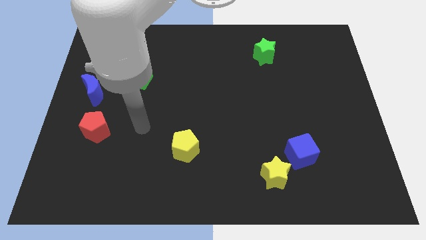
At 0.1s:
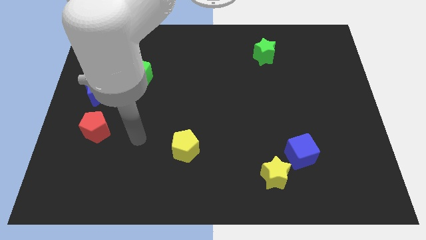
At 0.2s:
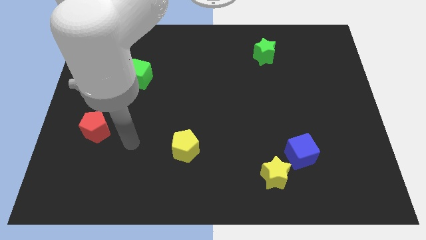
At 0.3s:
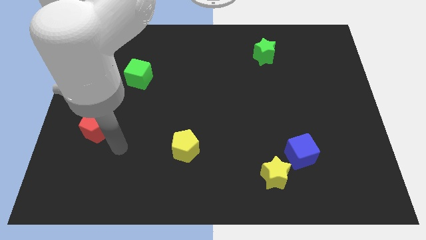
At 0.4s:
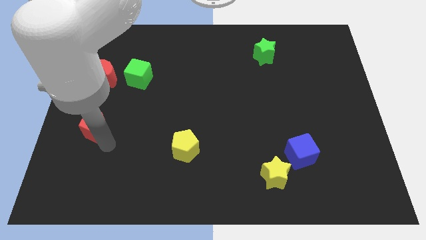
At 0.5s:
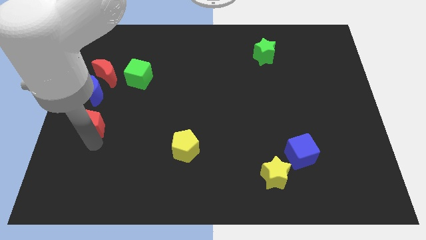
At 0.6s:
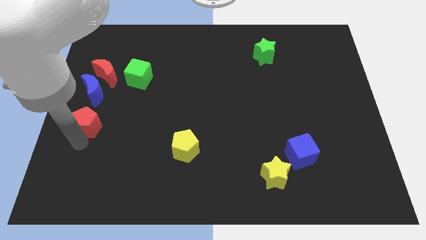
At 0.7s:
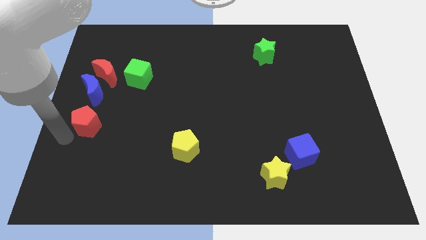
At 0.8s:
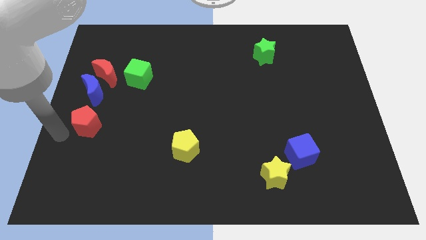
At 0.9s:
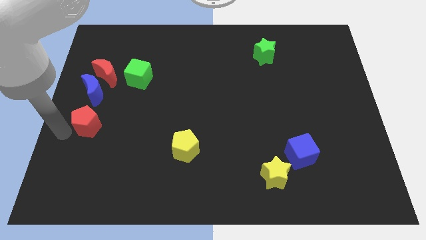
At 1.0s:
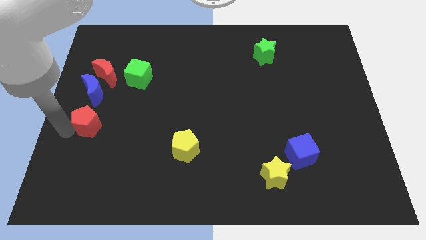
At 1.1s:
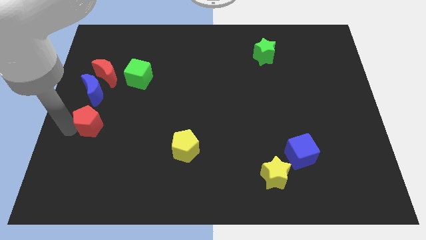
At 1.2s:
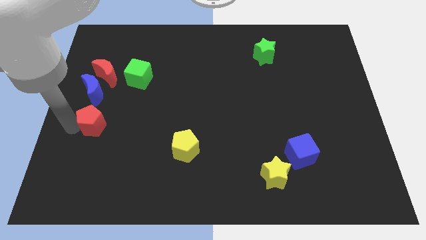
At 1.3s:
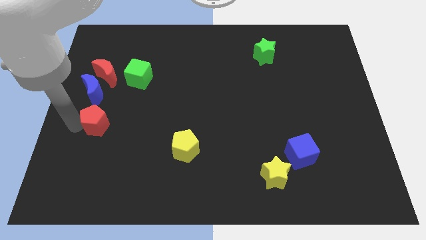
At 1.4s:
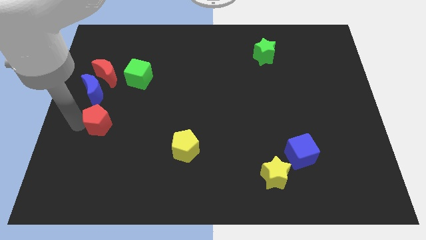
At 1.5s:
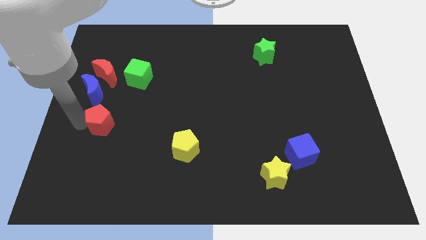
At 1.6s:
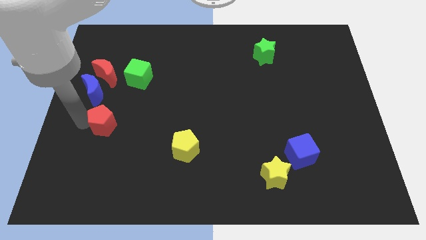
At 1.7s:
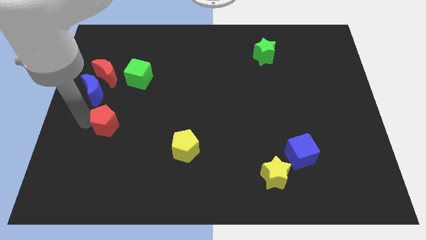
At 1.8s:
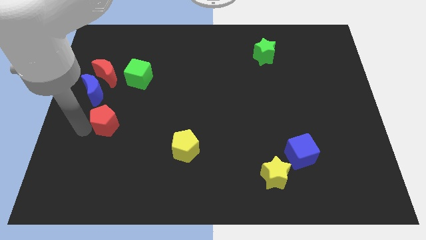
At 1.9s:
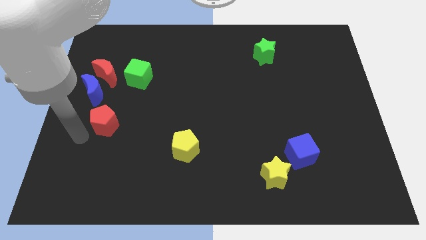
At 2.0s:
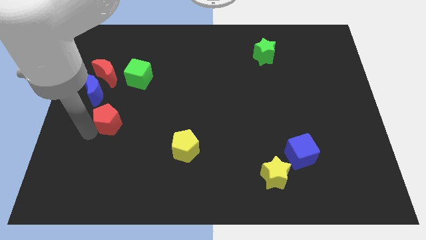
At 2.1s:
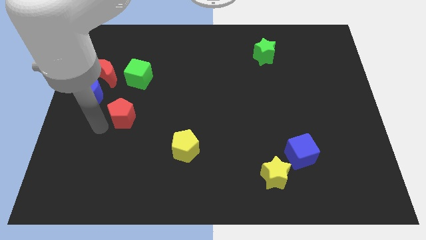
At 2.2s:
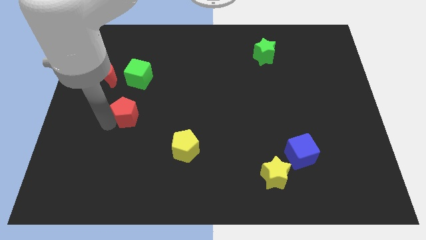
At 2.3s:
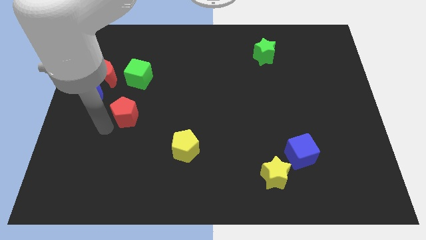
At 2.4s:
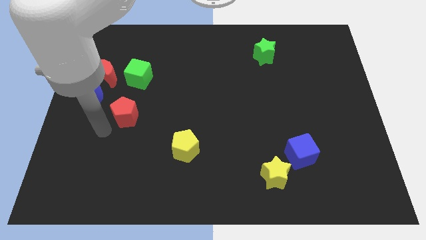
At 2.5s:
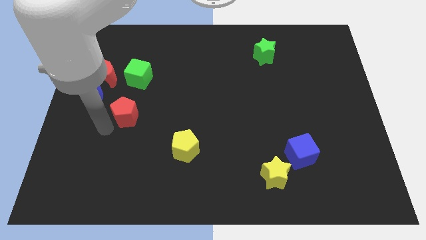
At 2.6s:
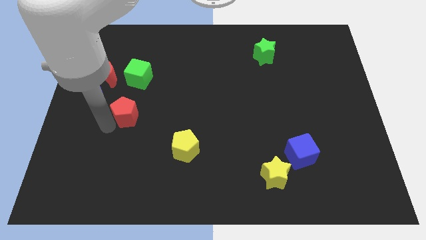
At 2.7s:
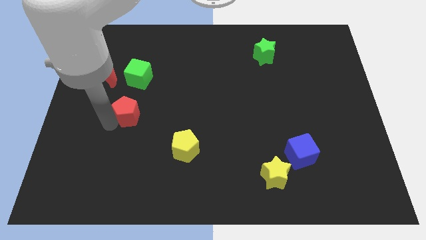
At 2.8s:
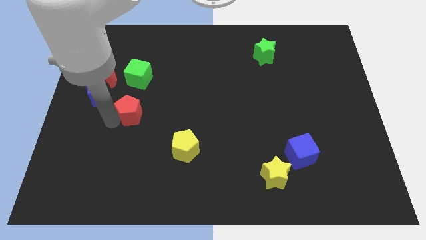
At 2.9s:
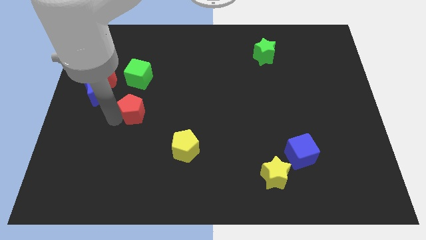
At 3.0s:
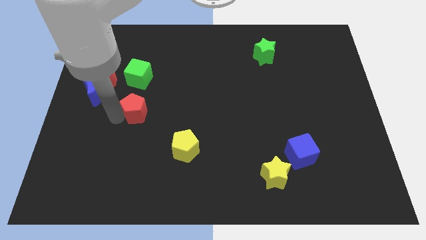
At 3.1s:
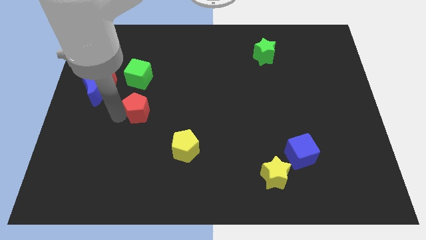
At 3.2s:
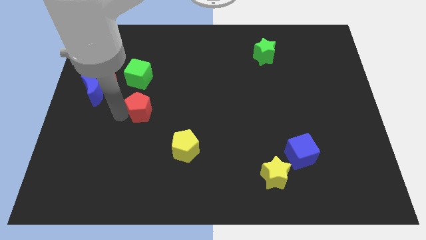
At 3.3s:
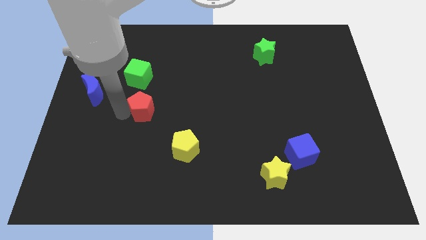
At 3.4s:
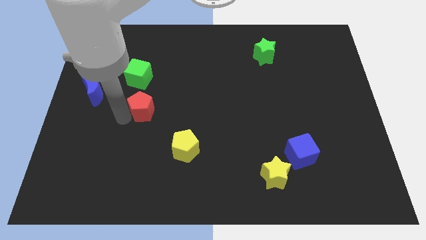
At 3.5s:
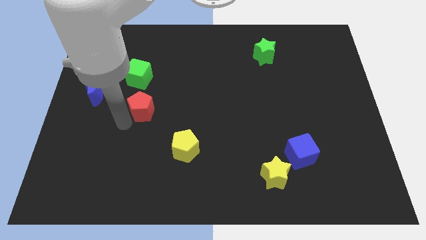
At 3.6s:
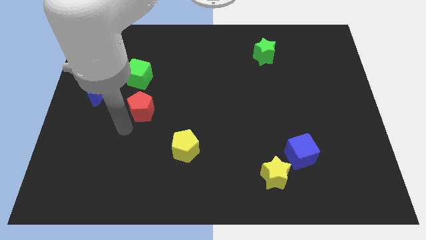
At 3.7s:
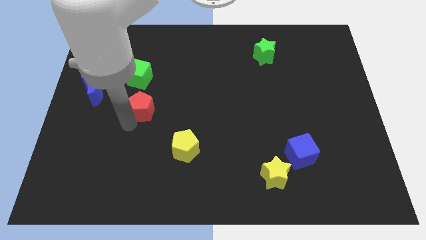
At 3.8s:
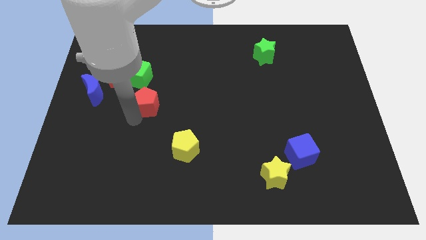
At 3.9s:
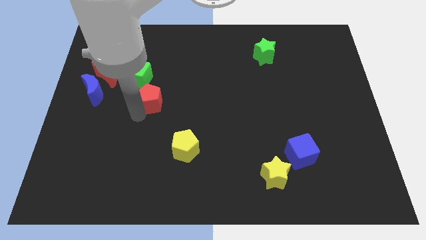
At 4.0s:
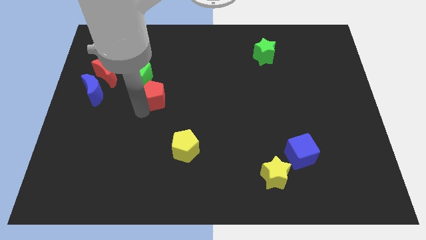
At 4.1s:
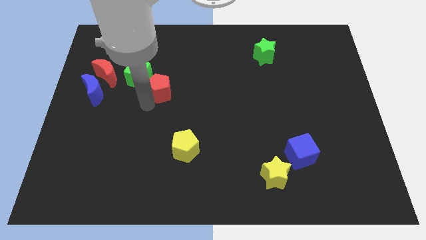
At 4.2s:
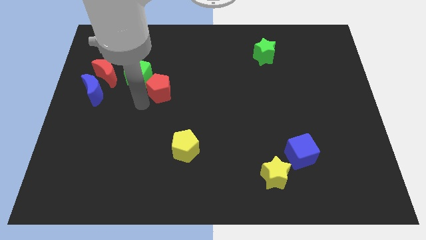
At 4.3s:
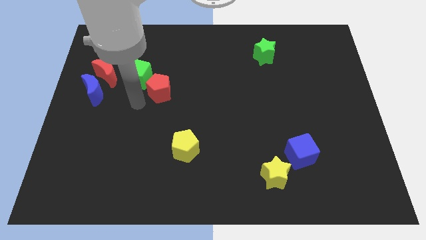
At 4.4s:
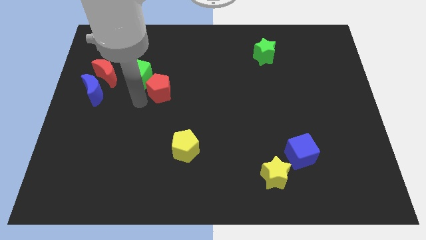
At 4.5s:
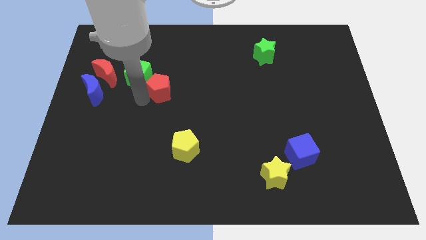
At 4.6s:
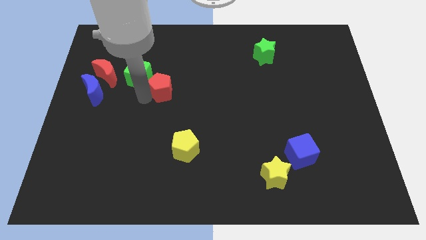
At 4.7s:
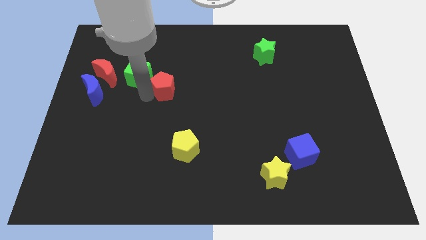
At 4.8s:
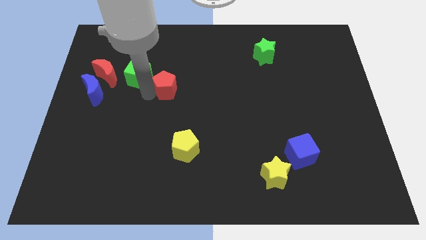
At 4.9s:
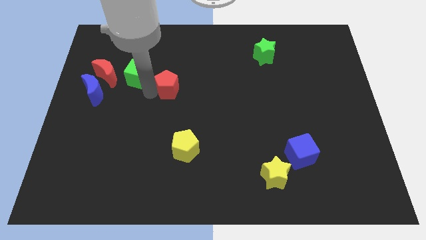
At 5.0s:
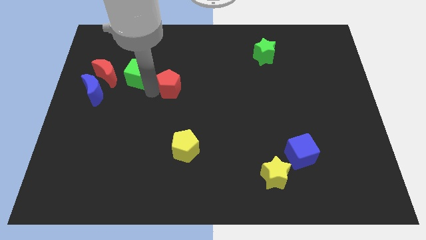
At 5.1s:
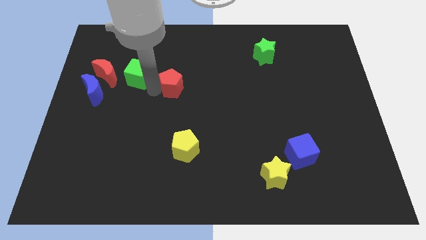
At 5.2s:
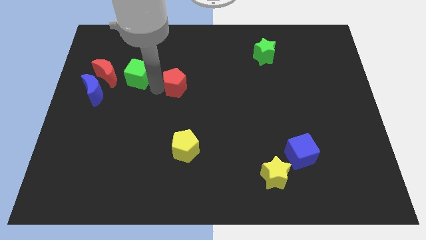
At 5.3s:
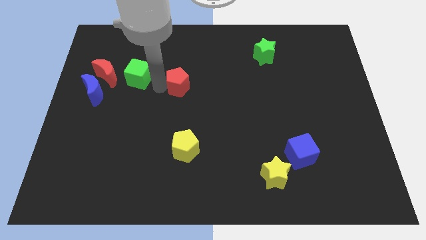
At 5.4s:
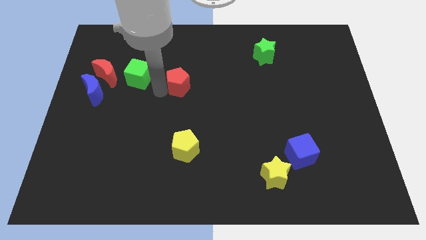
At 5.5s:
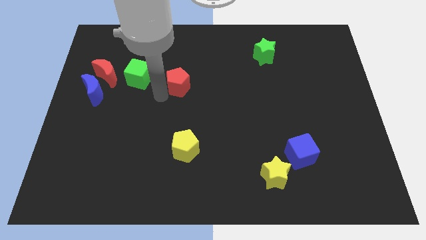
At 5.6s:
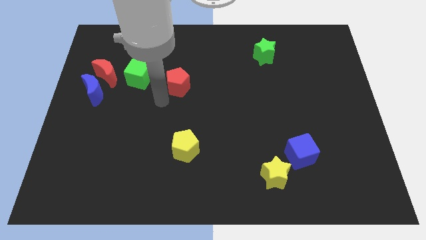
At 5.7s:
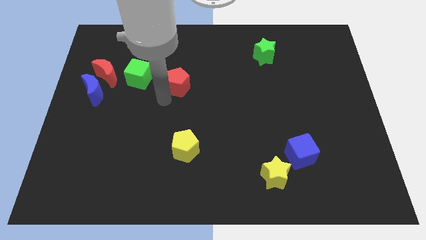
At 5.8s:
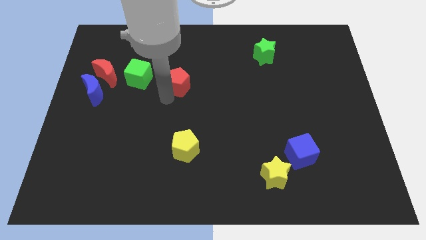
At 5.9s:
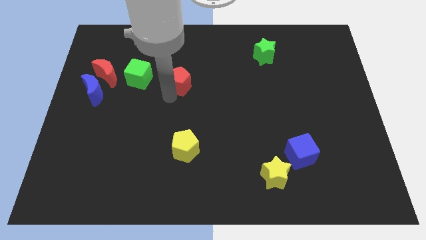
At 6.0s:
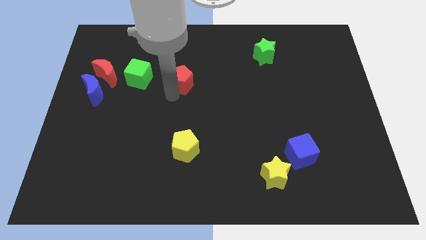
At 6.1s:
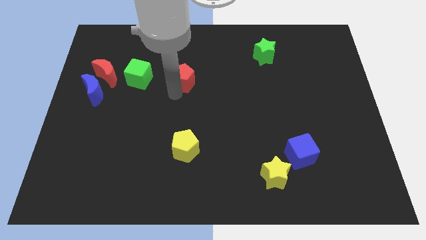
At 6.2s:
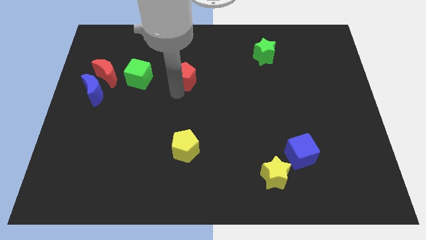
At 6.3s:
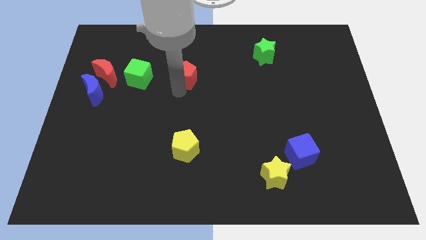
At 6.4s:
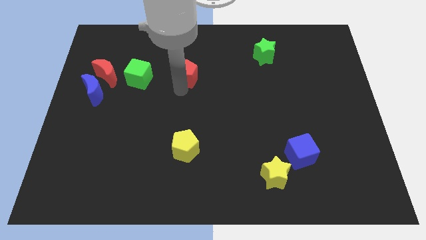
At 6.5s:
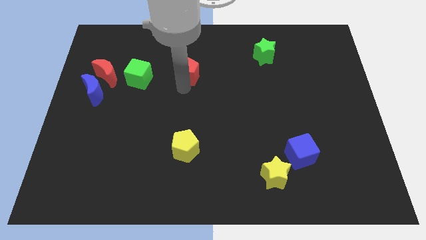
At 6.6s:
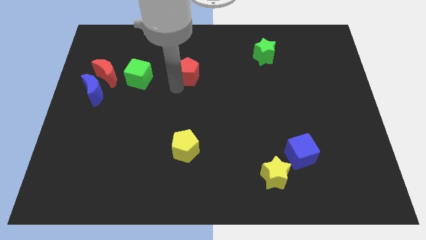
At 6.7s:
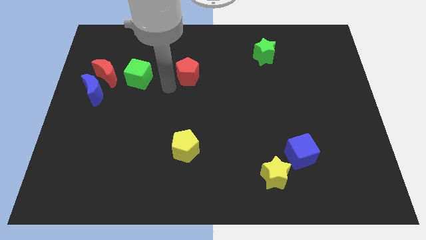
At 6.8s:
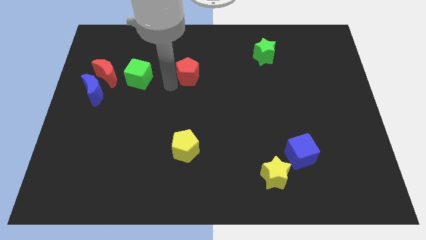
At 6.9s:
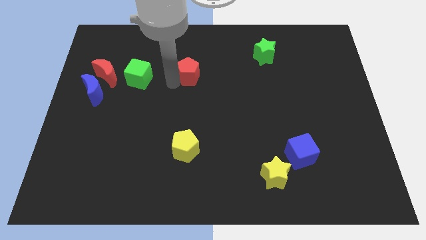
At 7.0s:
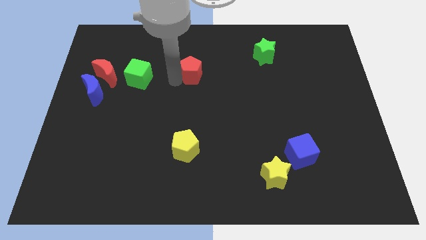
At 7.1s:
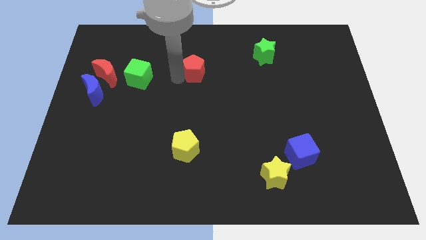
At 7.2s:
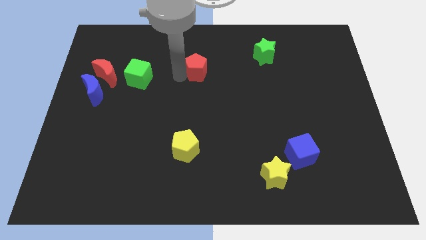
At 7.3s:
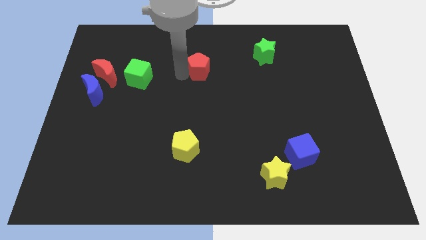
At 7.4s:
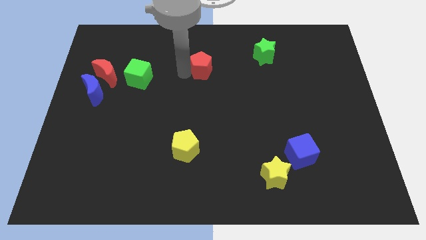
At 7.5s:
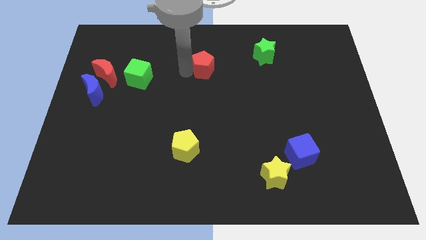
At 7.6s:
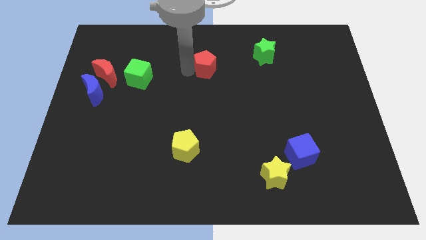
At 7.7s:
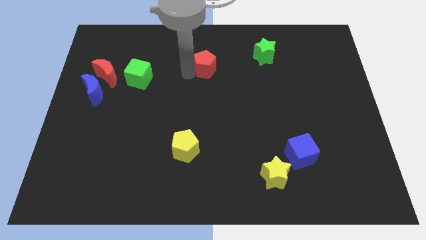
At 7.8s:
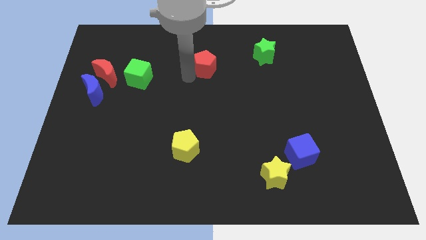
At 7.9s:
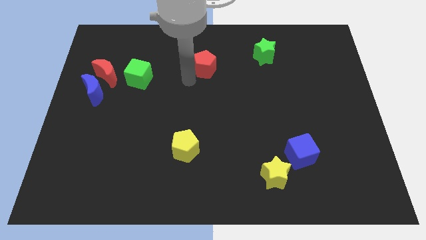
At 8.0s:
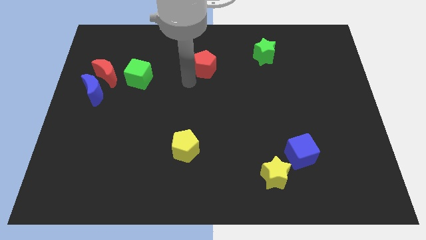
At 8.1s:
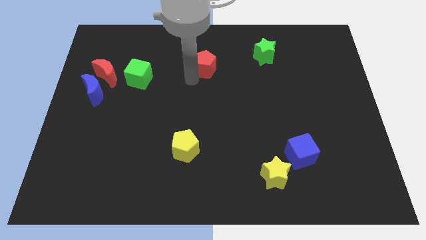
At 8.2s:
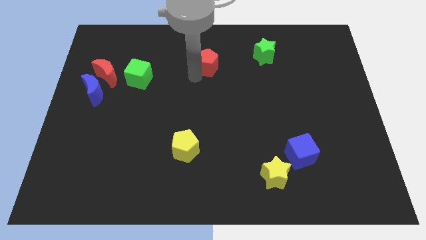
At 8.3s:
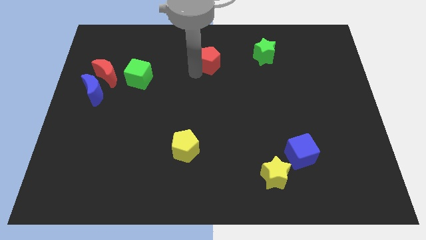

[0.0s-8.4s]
slide the red pentagon to the left side of the green star
